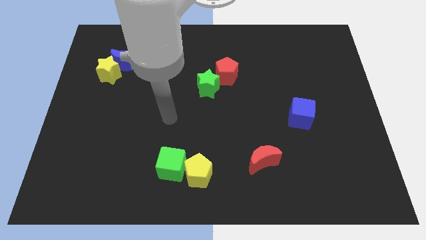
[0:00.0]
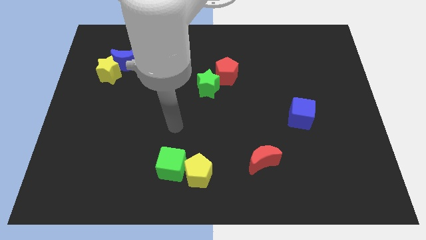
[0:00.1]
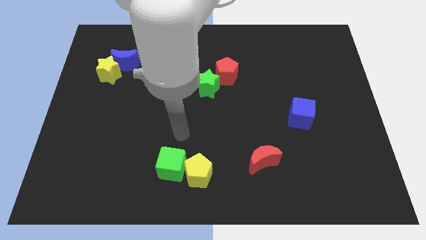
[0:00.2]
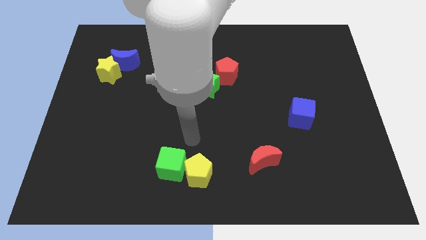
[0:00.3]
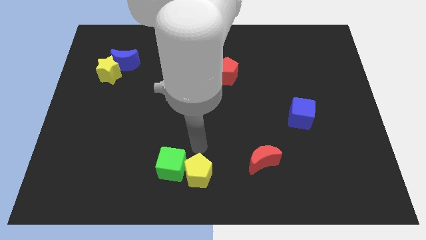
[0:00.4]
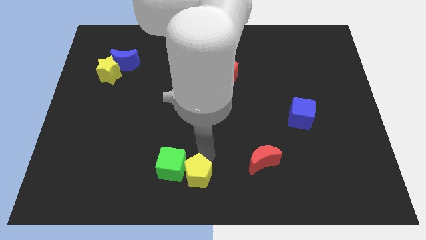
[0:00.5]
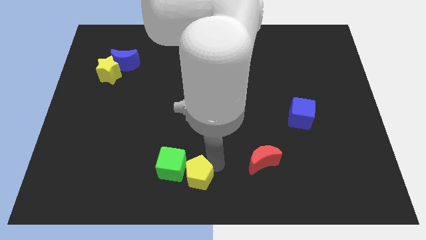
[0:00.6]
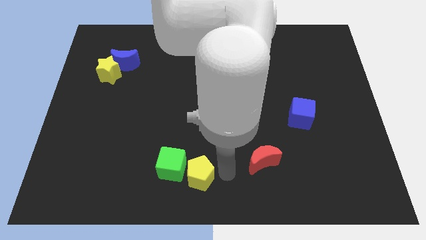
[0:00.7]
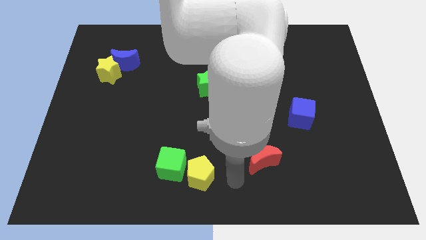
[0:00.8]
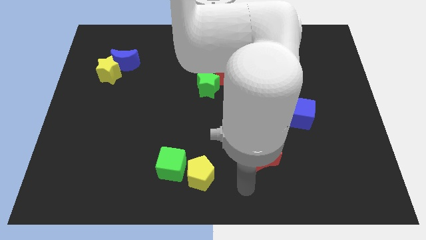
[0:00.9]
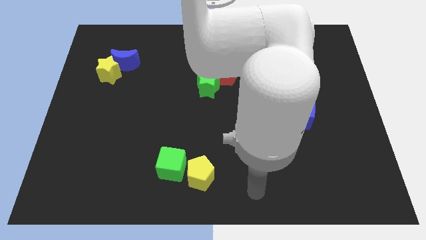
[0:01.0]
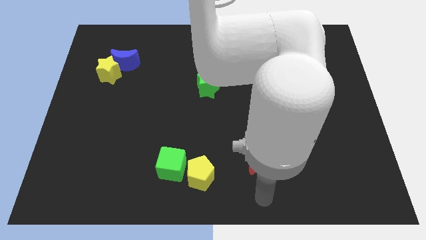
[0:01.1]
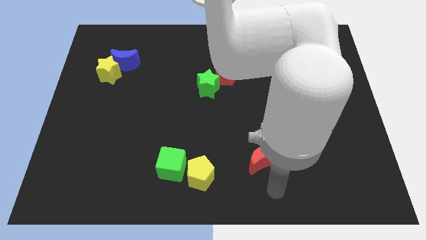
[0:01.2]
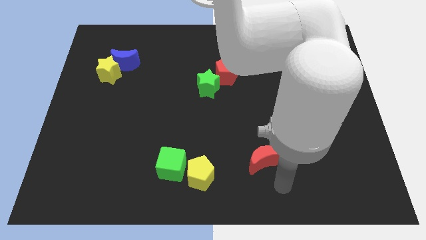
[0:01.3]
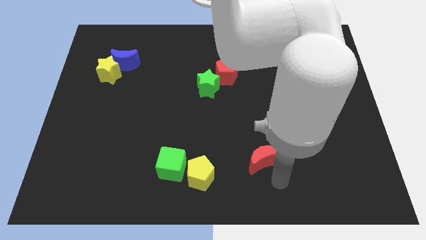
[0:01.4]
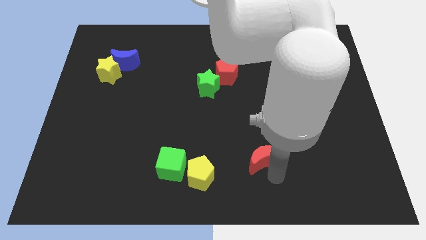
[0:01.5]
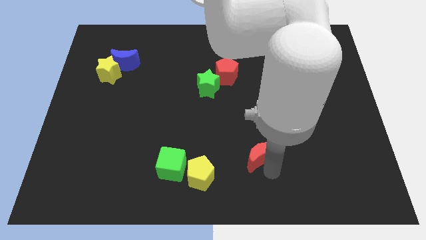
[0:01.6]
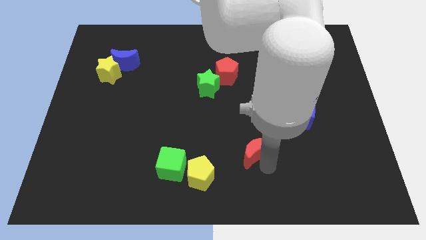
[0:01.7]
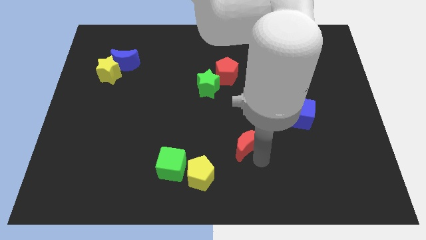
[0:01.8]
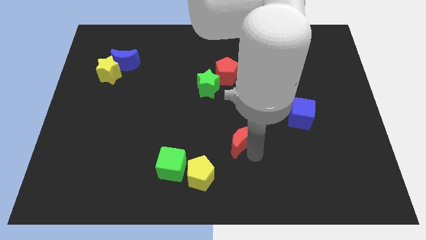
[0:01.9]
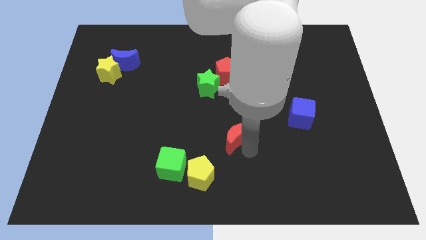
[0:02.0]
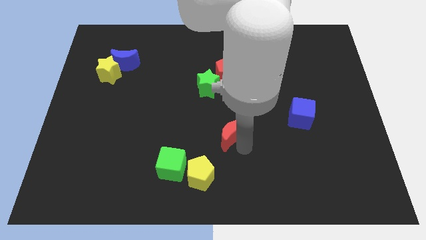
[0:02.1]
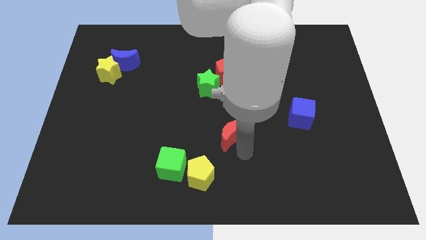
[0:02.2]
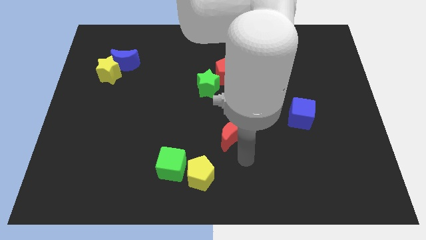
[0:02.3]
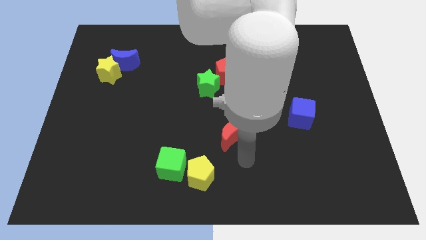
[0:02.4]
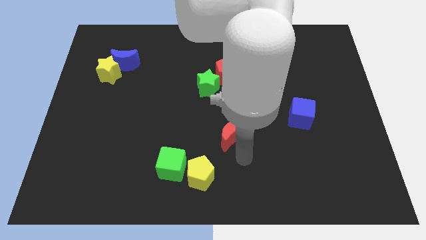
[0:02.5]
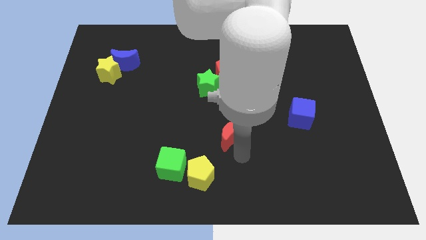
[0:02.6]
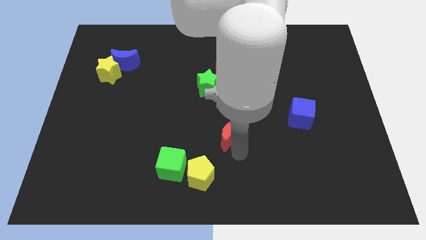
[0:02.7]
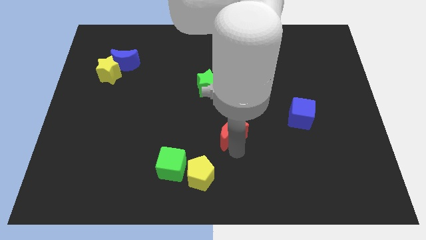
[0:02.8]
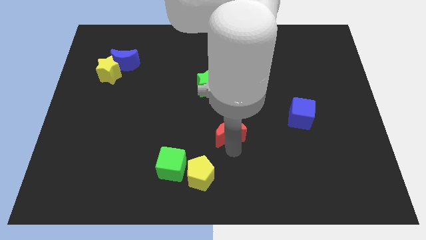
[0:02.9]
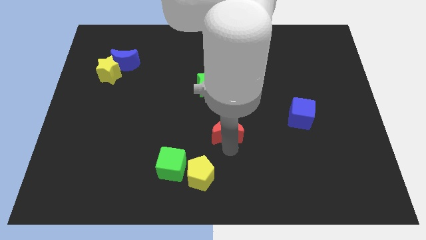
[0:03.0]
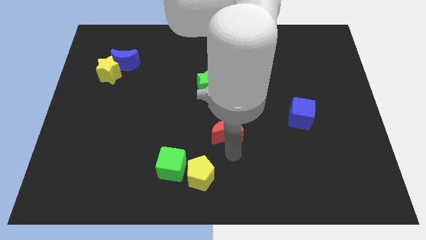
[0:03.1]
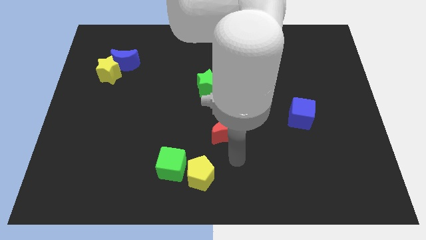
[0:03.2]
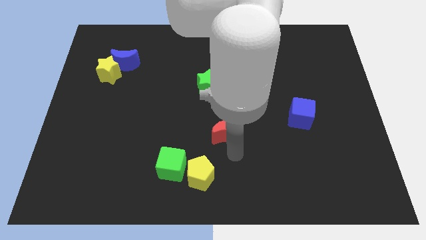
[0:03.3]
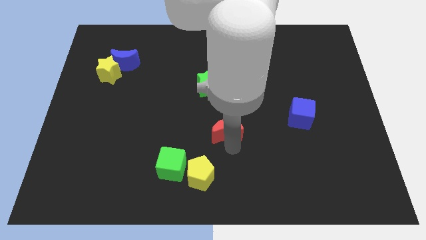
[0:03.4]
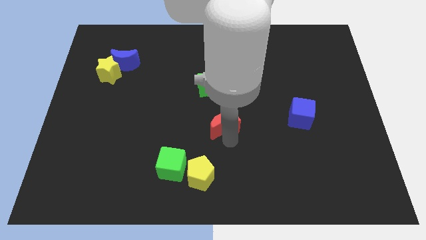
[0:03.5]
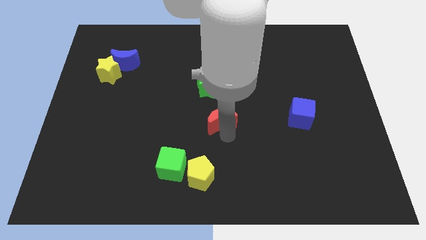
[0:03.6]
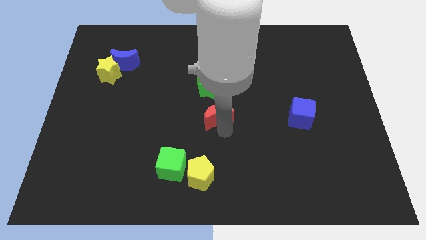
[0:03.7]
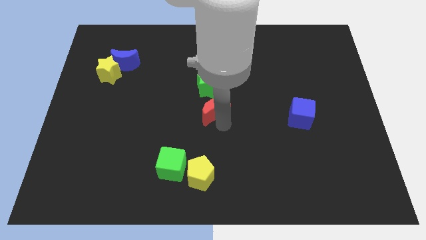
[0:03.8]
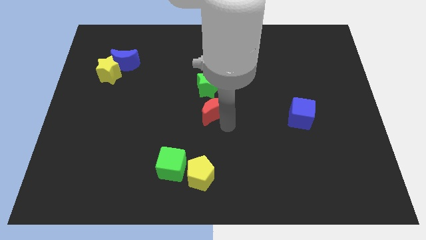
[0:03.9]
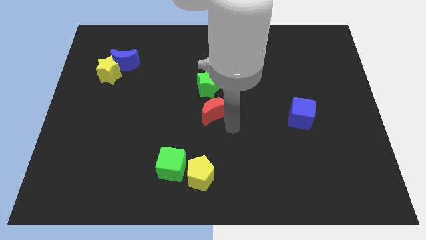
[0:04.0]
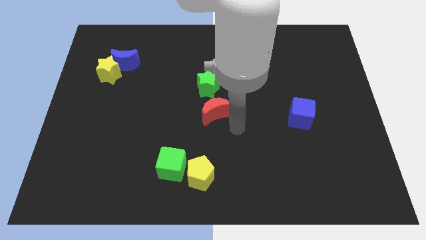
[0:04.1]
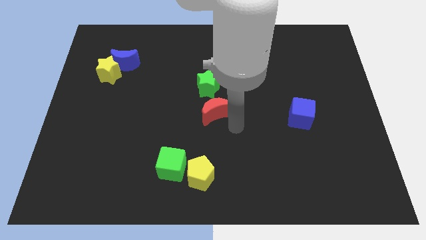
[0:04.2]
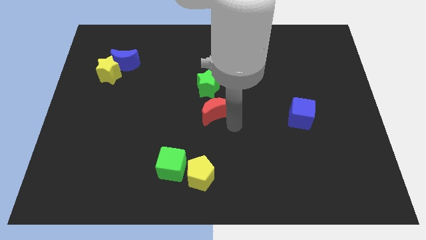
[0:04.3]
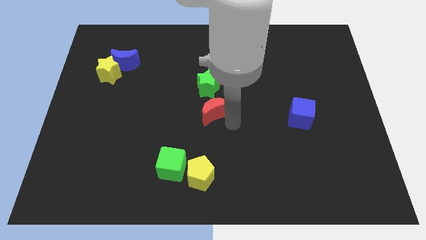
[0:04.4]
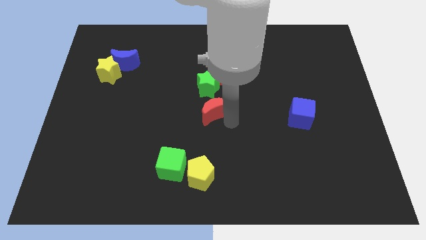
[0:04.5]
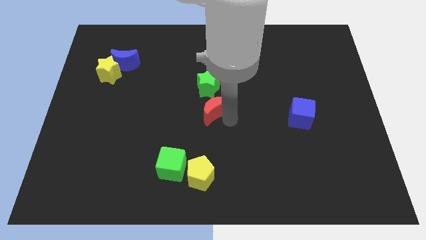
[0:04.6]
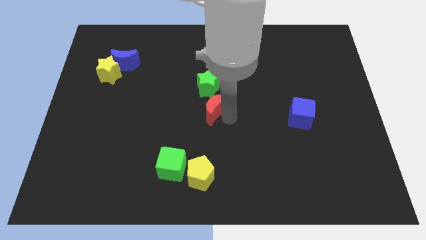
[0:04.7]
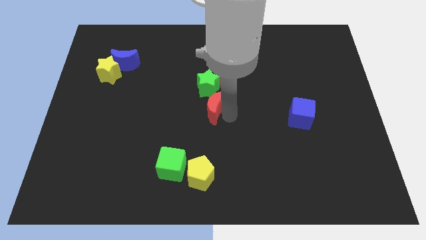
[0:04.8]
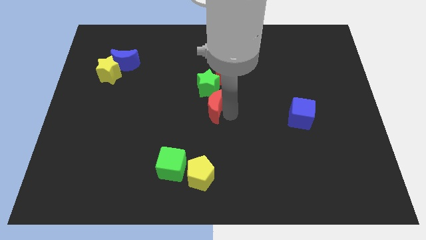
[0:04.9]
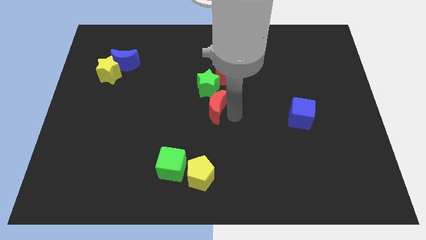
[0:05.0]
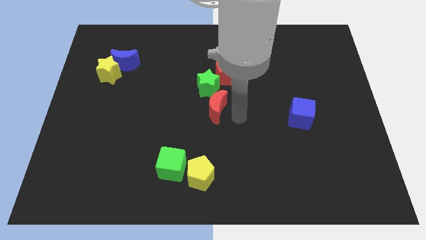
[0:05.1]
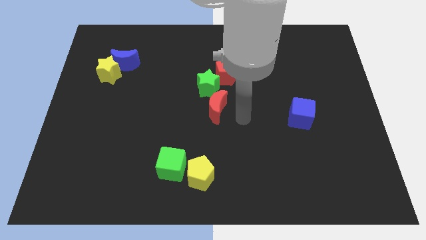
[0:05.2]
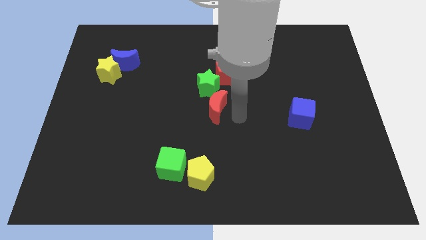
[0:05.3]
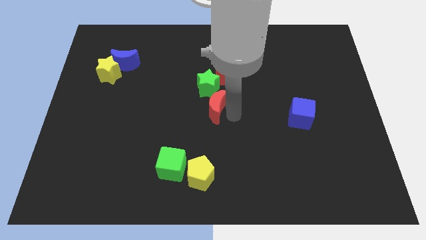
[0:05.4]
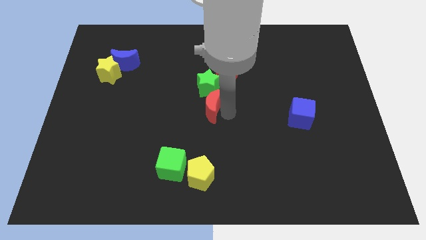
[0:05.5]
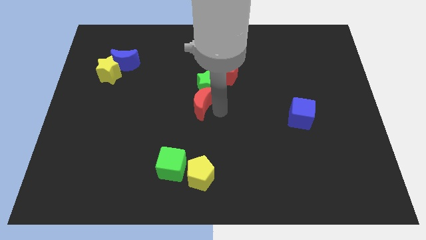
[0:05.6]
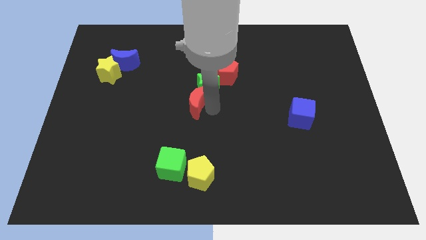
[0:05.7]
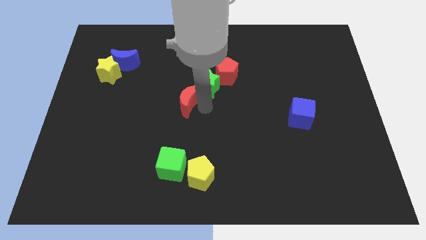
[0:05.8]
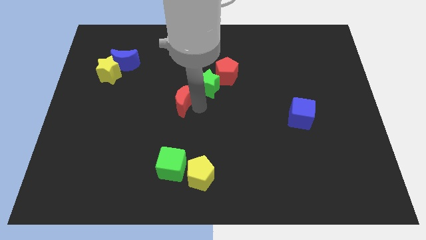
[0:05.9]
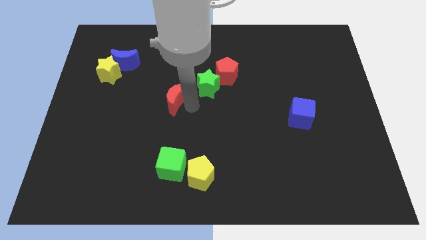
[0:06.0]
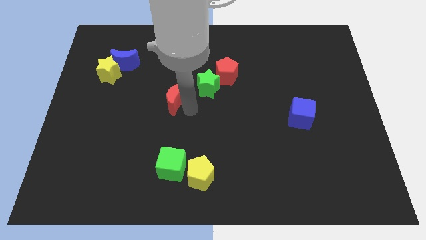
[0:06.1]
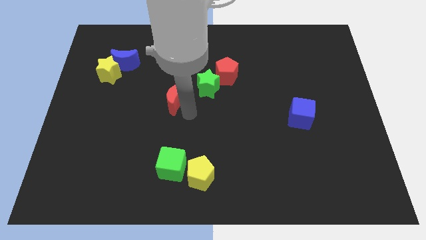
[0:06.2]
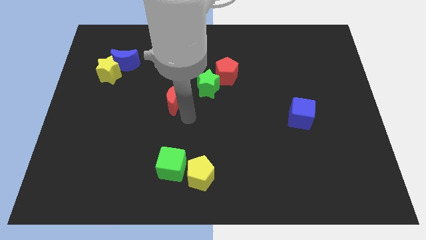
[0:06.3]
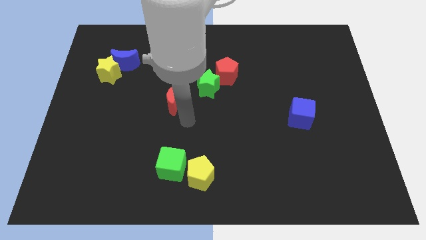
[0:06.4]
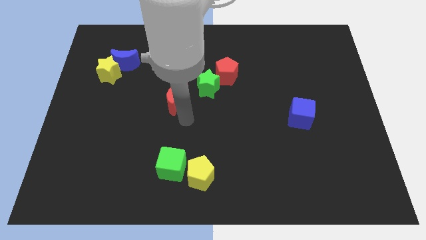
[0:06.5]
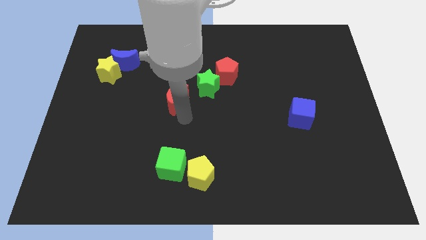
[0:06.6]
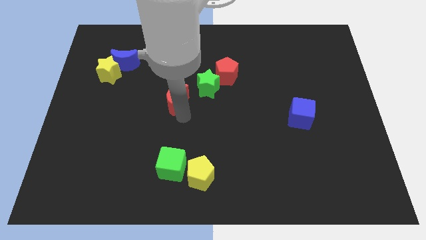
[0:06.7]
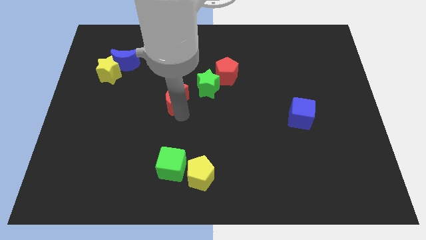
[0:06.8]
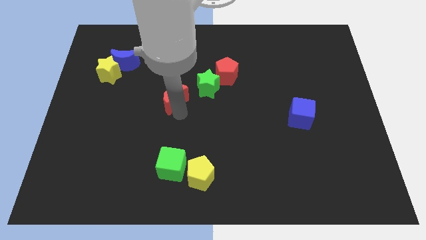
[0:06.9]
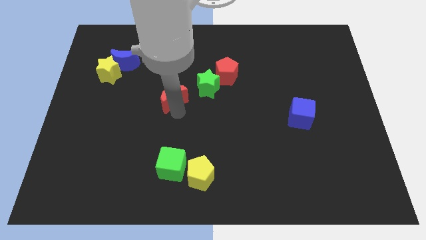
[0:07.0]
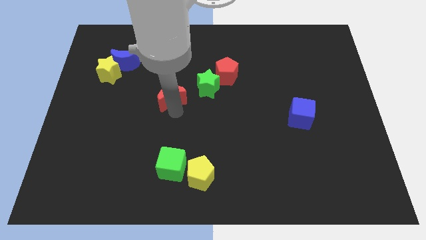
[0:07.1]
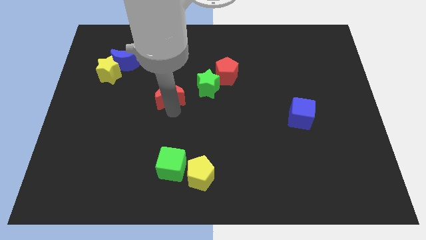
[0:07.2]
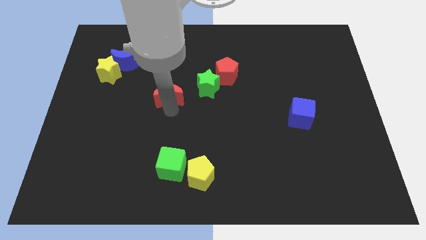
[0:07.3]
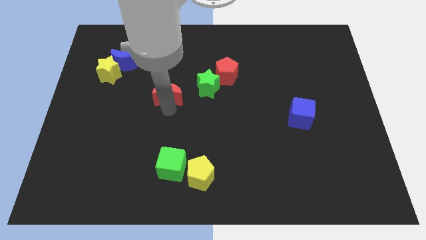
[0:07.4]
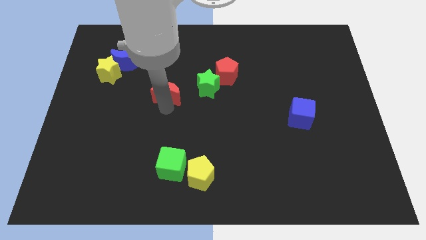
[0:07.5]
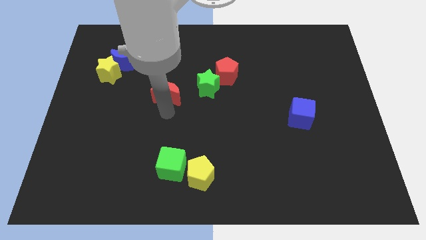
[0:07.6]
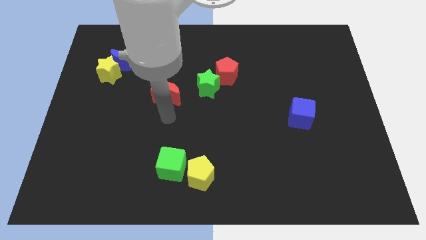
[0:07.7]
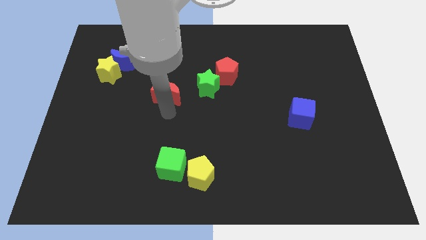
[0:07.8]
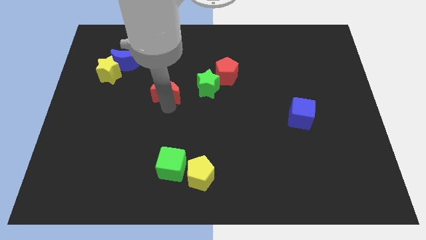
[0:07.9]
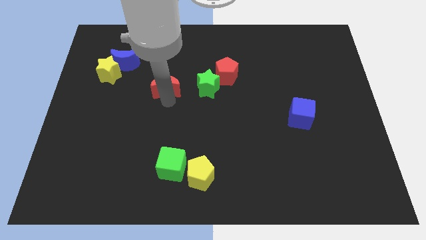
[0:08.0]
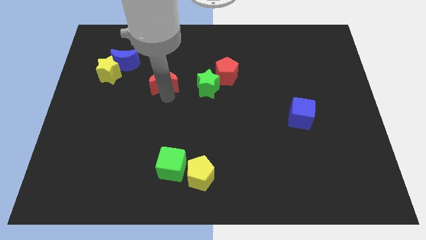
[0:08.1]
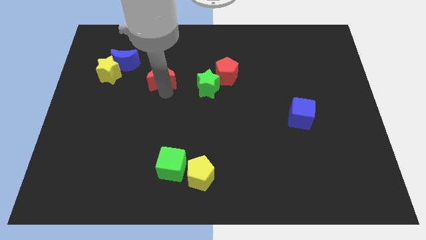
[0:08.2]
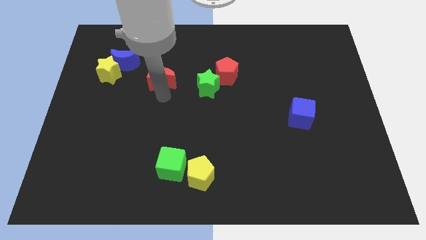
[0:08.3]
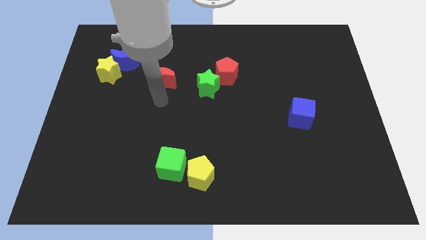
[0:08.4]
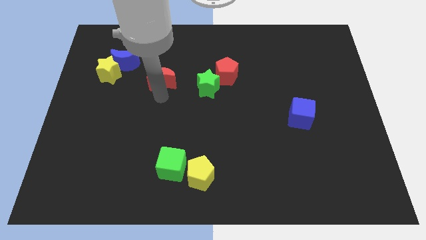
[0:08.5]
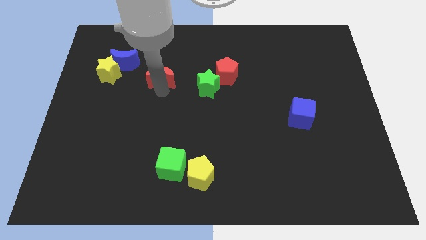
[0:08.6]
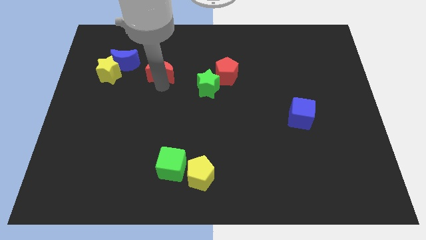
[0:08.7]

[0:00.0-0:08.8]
put the red moon to the right of the blue moon
